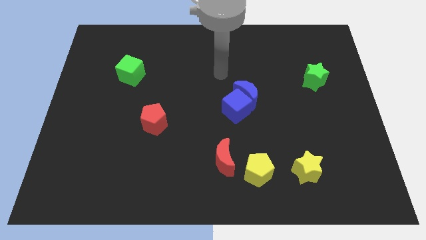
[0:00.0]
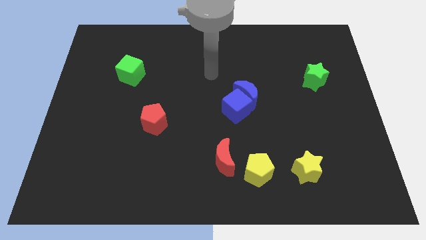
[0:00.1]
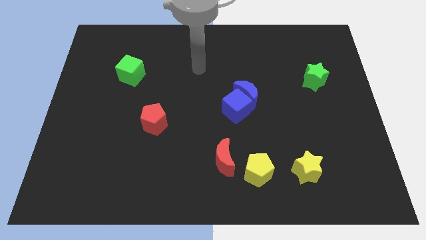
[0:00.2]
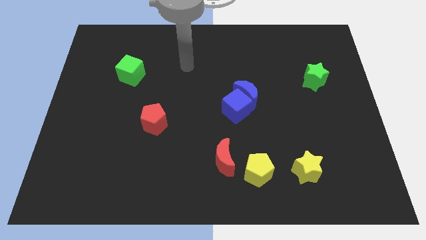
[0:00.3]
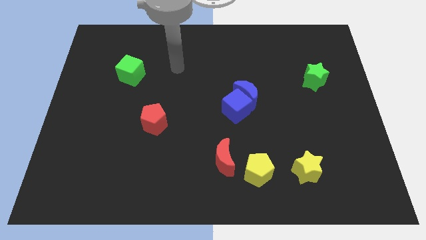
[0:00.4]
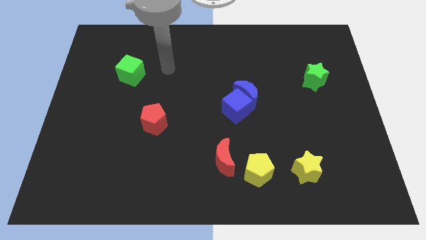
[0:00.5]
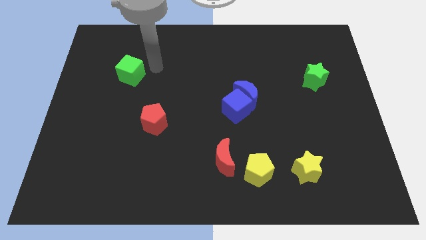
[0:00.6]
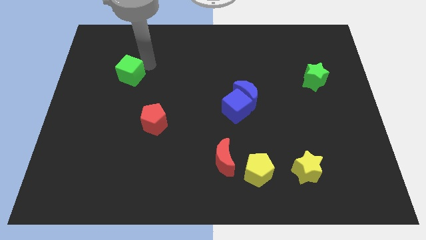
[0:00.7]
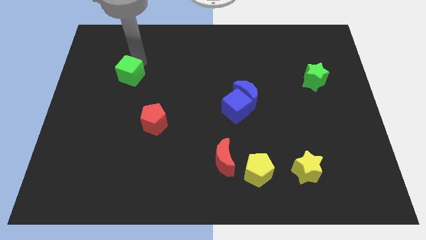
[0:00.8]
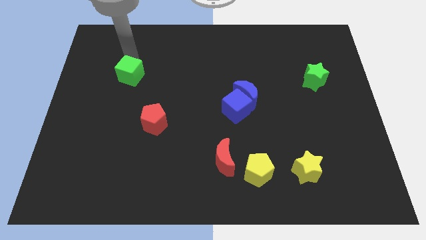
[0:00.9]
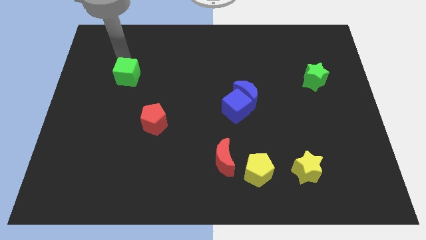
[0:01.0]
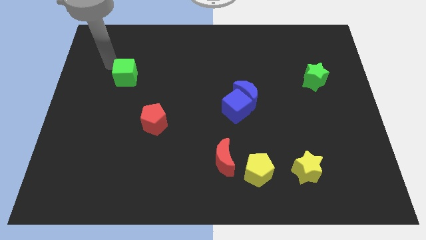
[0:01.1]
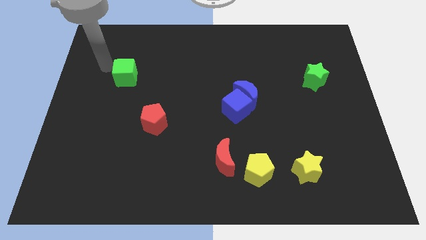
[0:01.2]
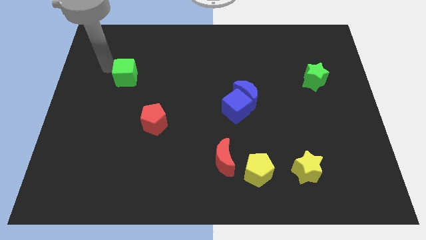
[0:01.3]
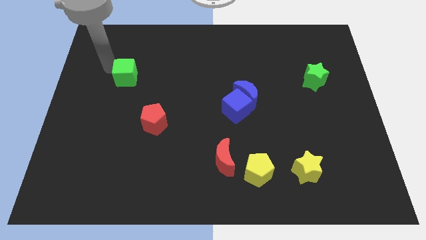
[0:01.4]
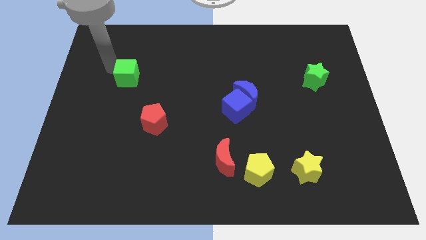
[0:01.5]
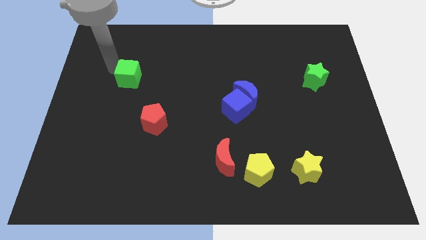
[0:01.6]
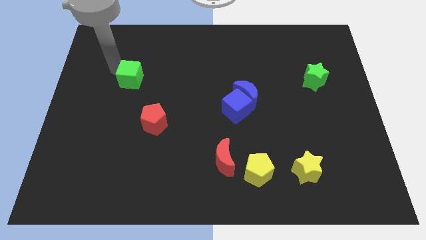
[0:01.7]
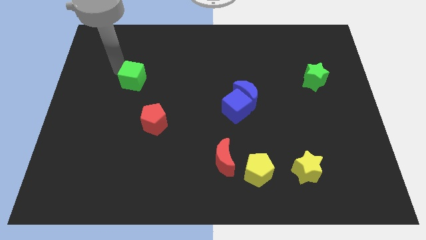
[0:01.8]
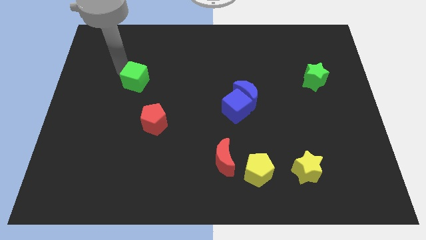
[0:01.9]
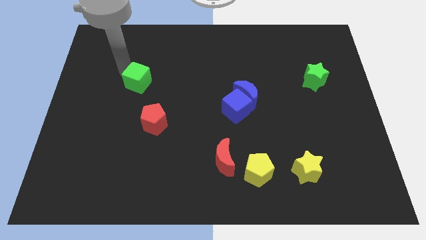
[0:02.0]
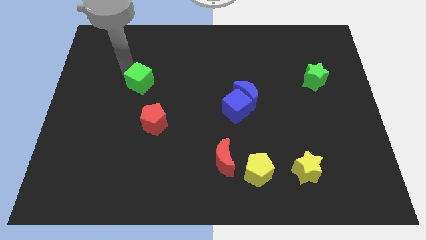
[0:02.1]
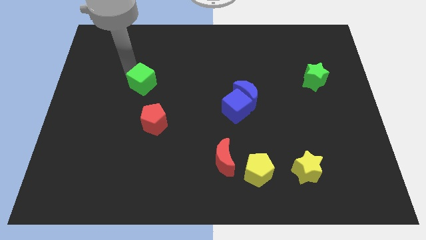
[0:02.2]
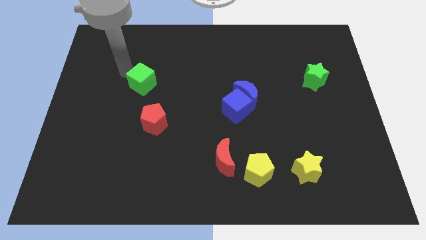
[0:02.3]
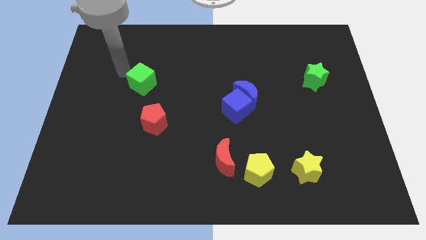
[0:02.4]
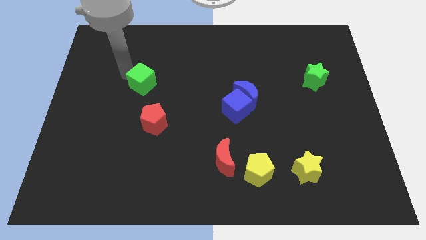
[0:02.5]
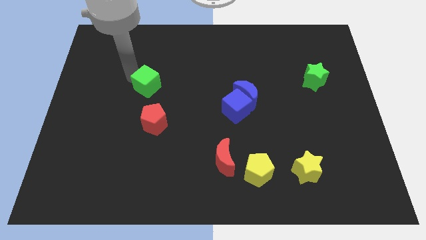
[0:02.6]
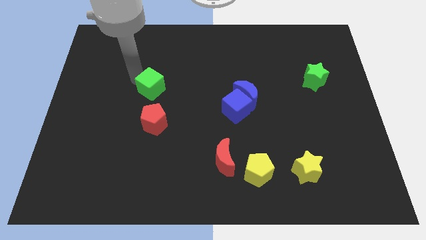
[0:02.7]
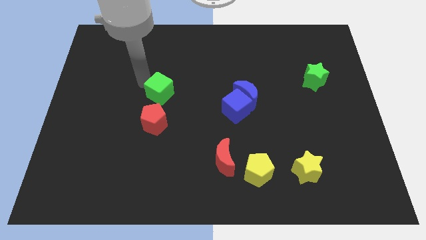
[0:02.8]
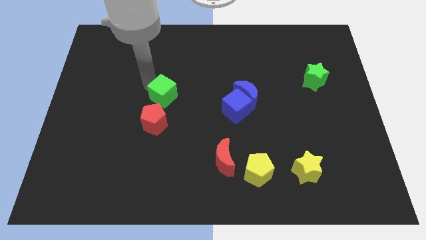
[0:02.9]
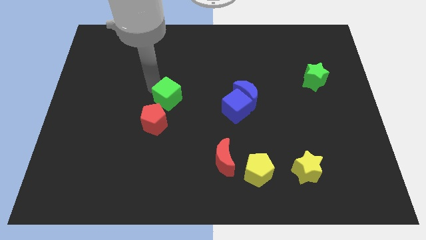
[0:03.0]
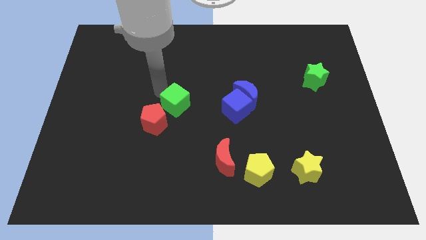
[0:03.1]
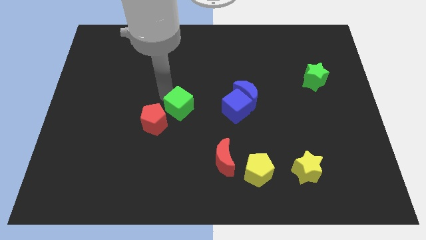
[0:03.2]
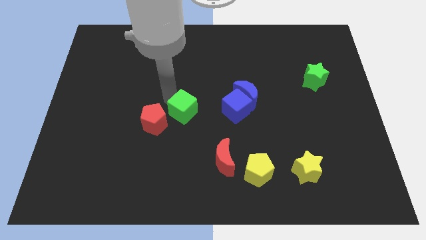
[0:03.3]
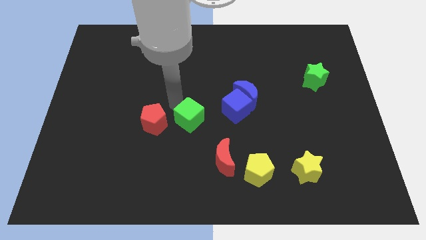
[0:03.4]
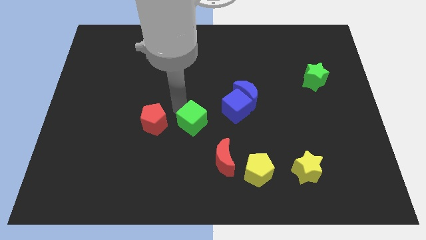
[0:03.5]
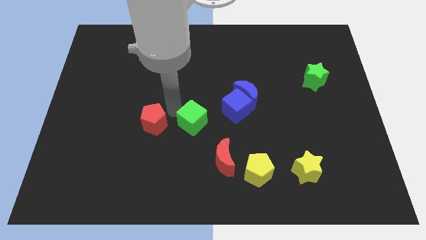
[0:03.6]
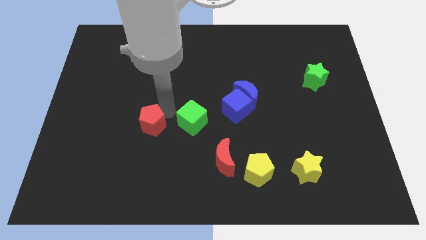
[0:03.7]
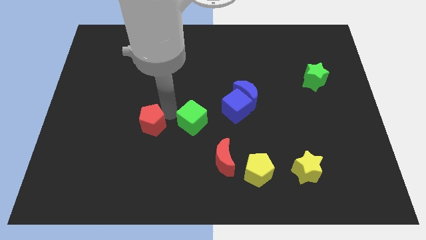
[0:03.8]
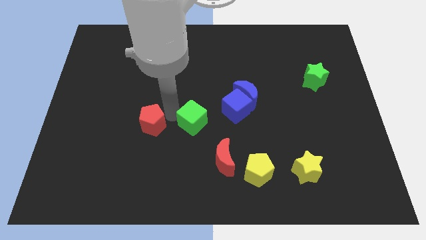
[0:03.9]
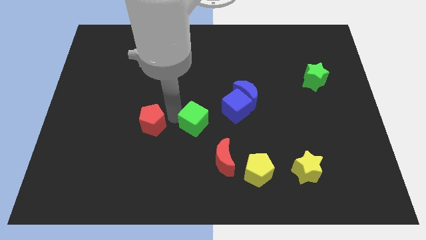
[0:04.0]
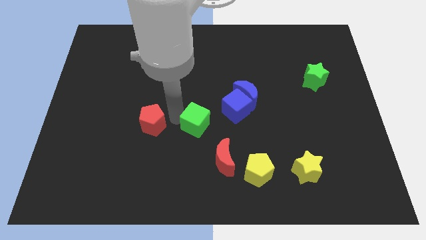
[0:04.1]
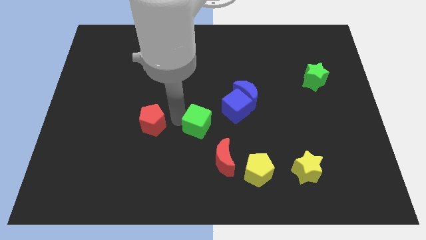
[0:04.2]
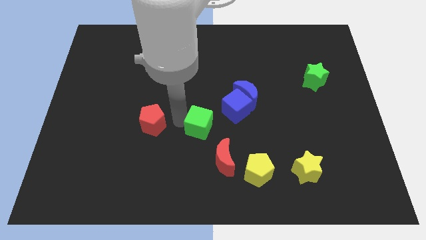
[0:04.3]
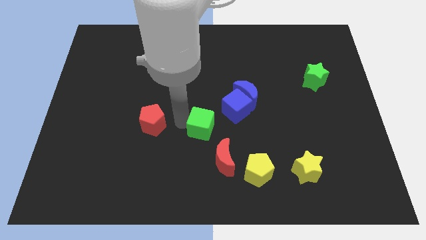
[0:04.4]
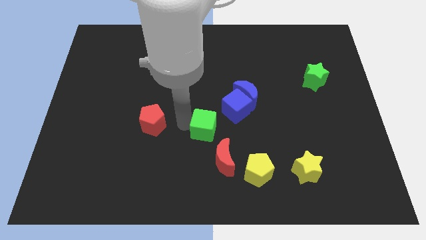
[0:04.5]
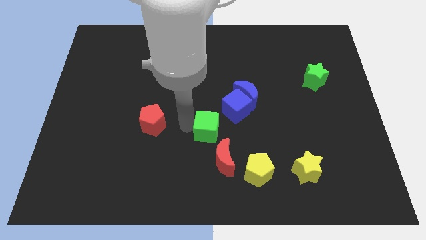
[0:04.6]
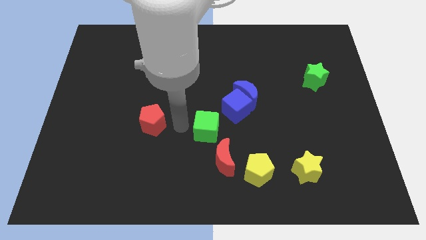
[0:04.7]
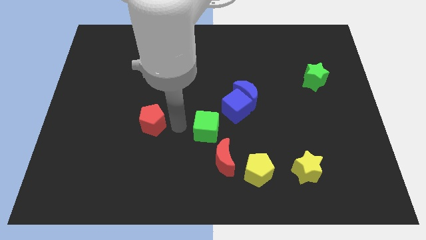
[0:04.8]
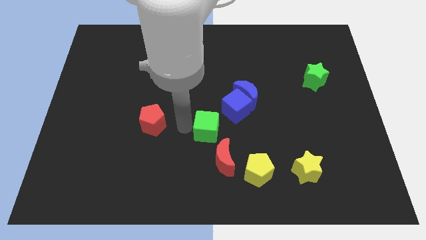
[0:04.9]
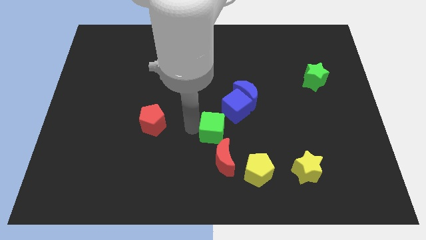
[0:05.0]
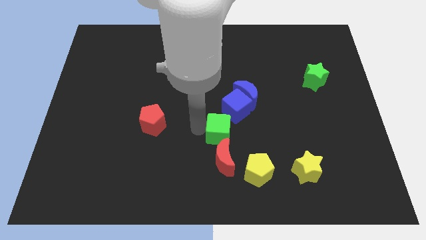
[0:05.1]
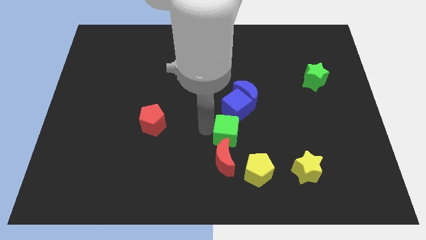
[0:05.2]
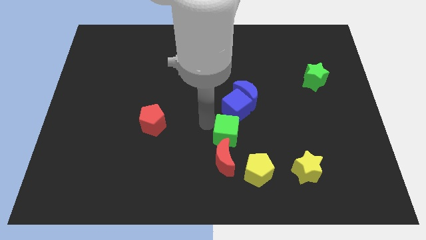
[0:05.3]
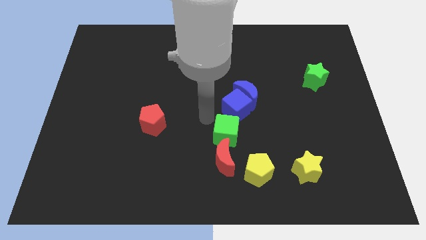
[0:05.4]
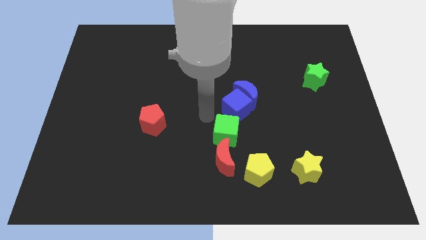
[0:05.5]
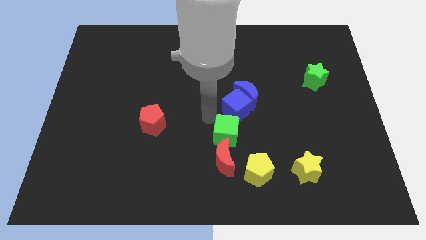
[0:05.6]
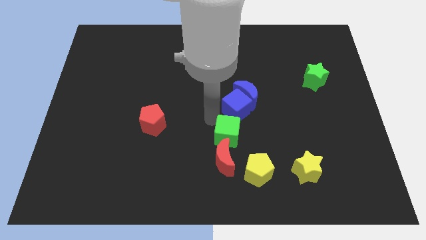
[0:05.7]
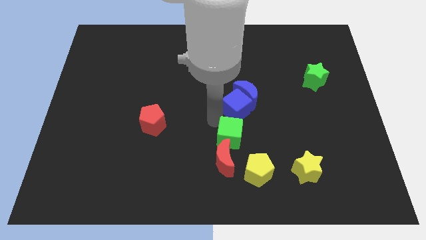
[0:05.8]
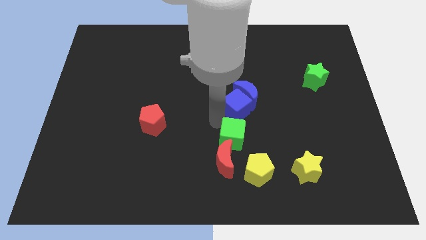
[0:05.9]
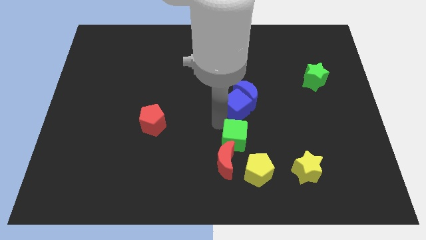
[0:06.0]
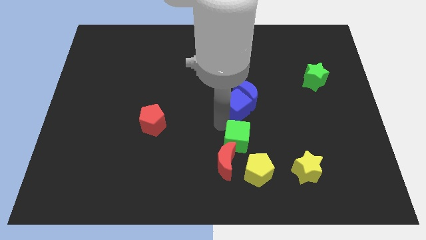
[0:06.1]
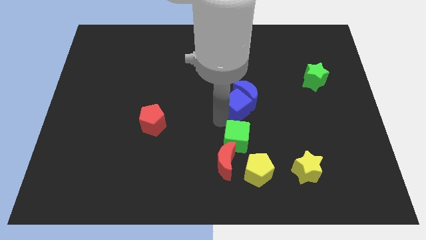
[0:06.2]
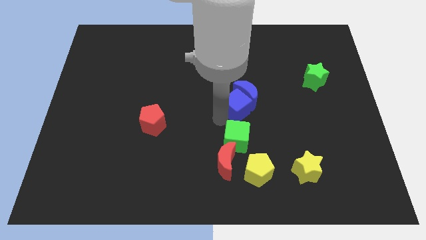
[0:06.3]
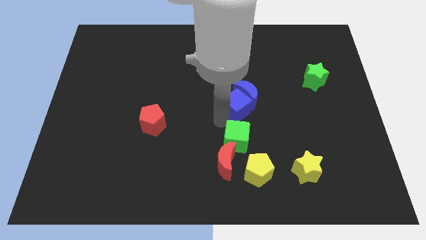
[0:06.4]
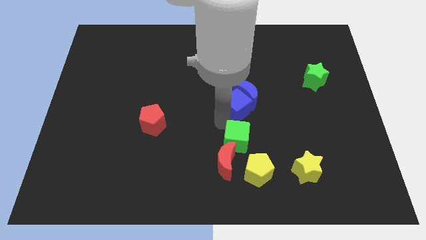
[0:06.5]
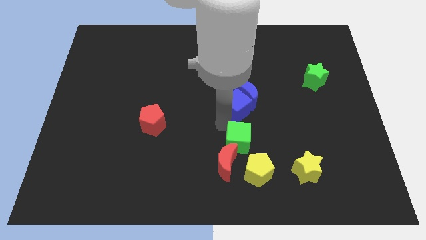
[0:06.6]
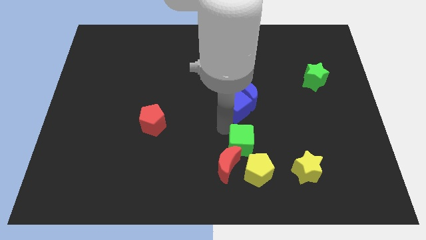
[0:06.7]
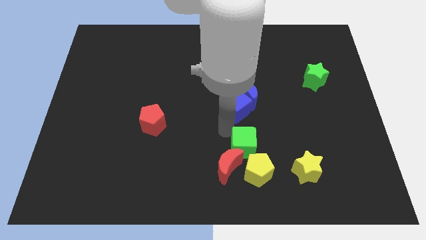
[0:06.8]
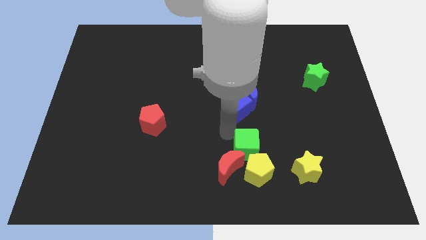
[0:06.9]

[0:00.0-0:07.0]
put the green cube next to the yellow pentagon

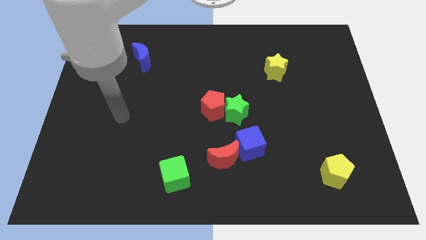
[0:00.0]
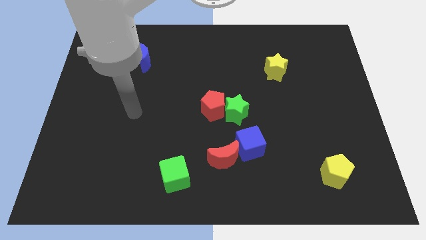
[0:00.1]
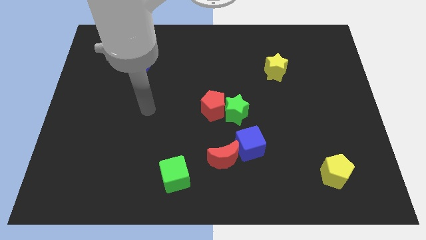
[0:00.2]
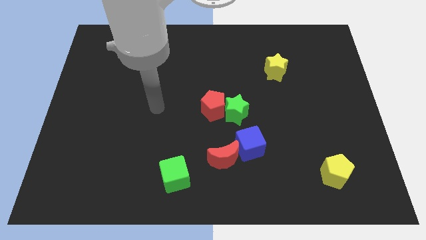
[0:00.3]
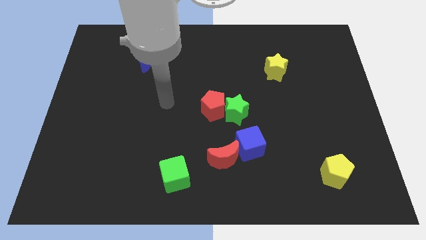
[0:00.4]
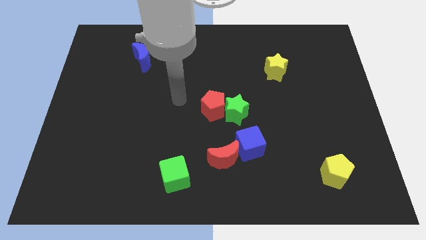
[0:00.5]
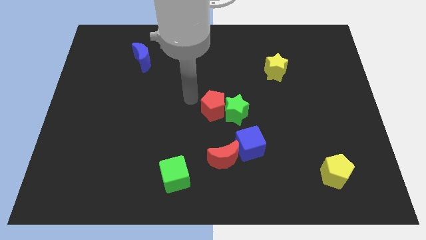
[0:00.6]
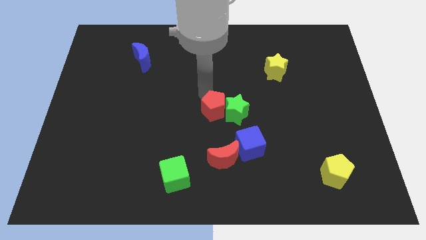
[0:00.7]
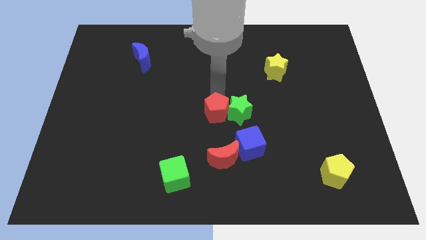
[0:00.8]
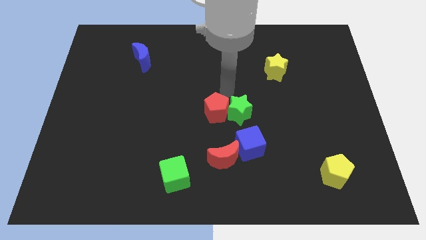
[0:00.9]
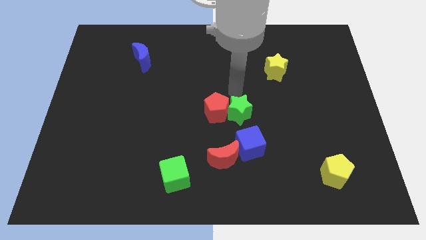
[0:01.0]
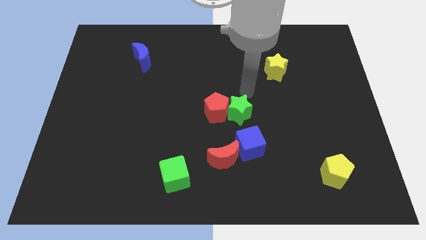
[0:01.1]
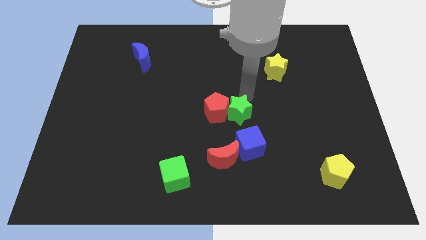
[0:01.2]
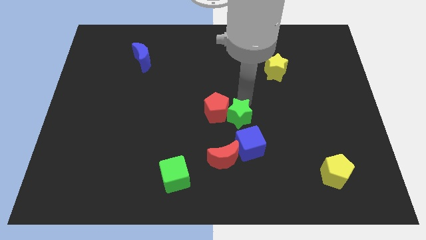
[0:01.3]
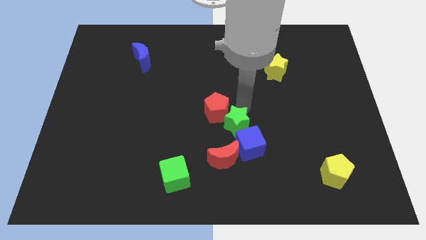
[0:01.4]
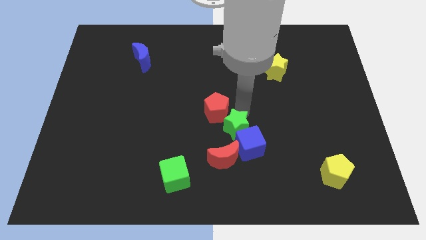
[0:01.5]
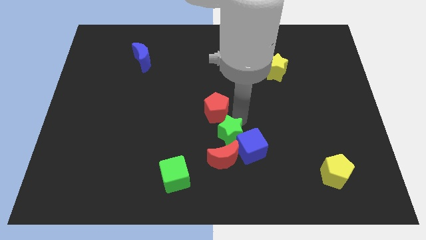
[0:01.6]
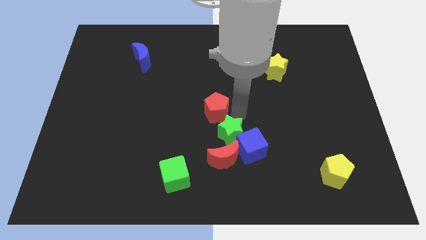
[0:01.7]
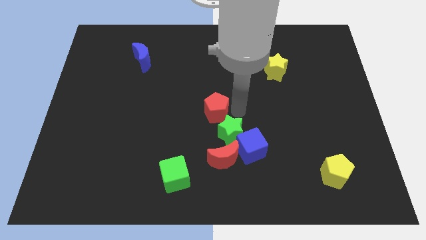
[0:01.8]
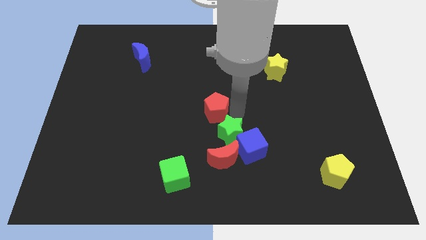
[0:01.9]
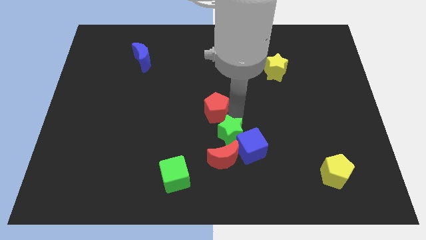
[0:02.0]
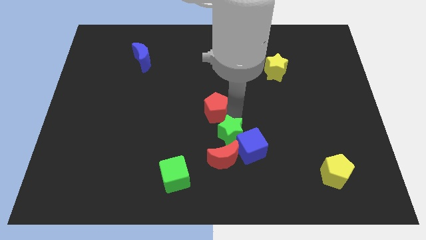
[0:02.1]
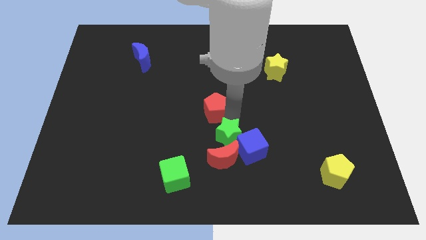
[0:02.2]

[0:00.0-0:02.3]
move the green star towards the red moon
